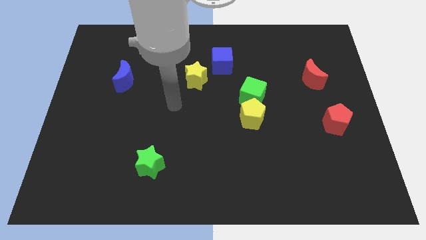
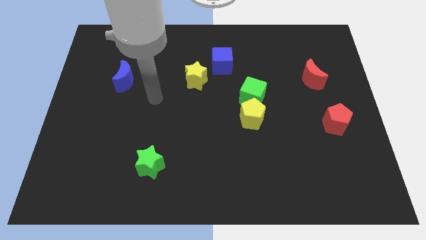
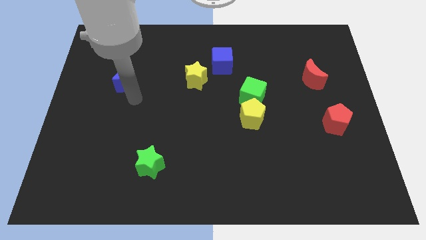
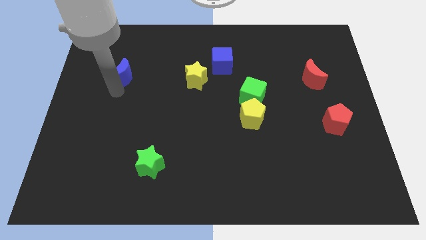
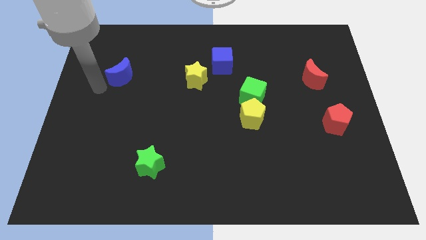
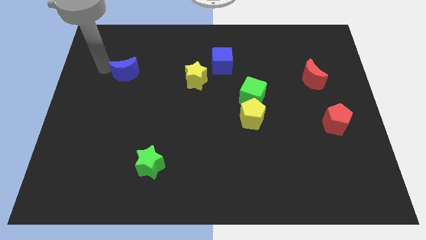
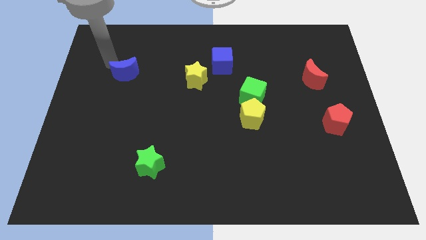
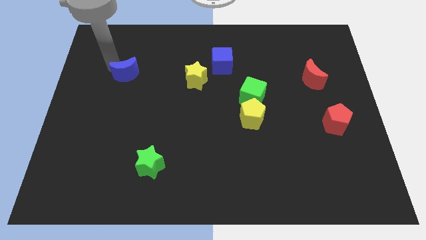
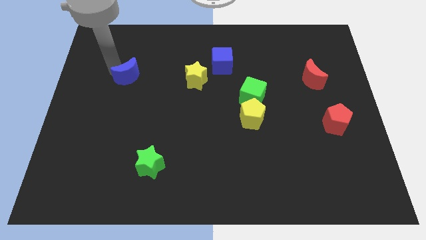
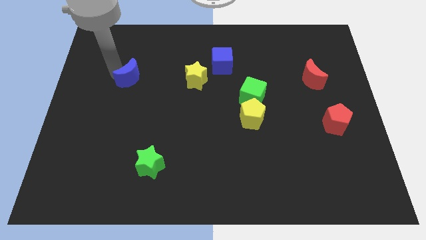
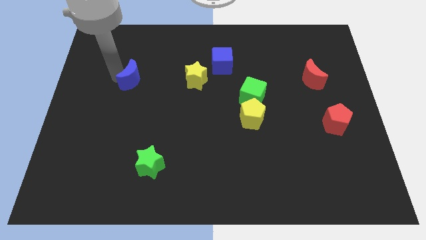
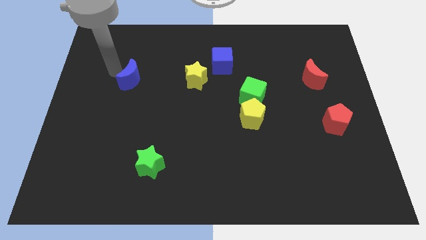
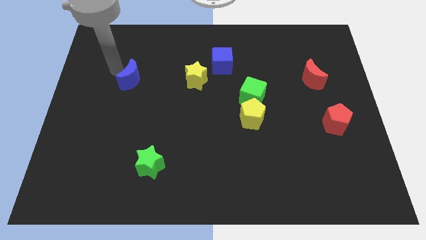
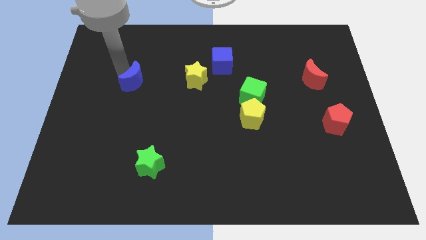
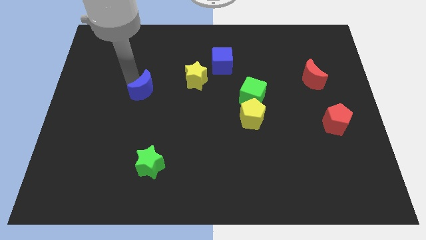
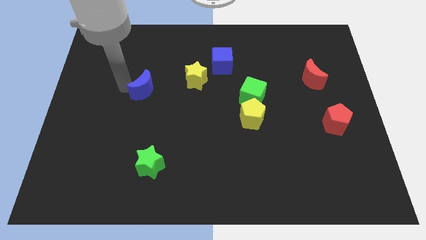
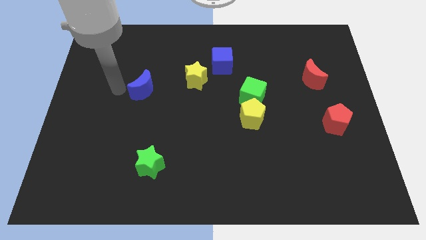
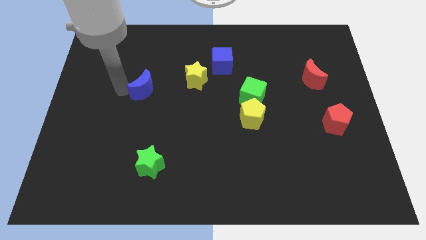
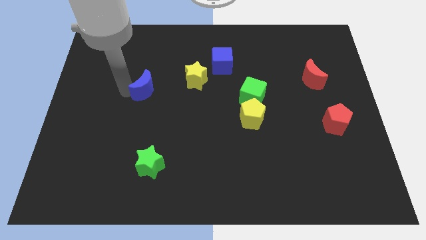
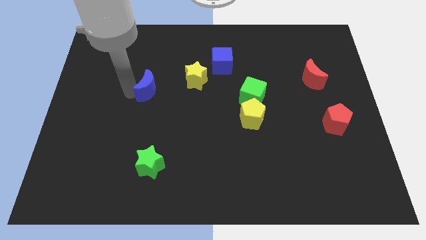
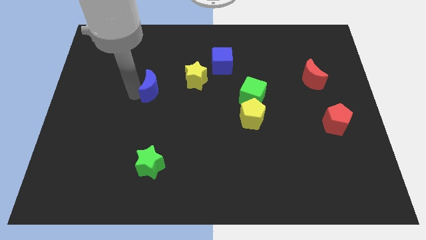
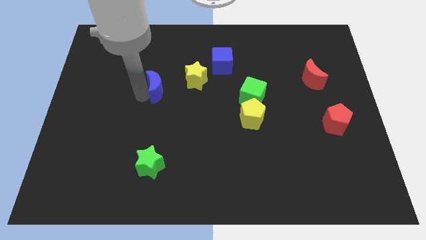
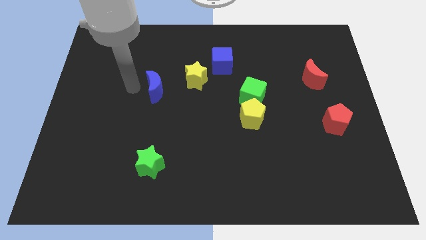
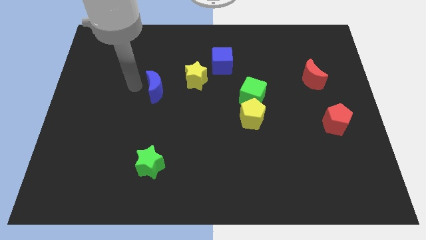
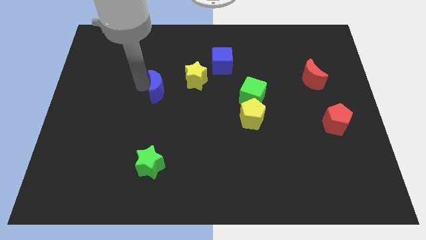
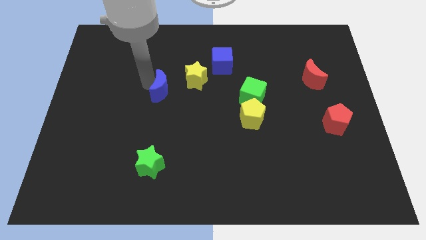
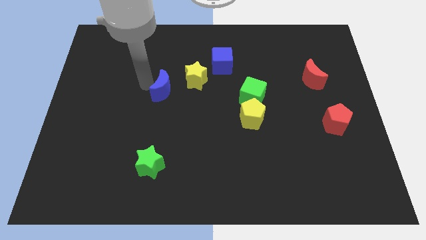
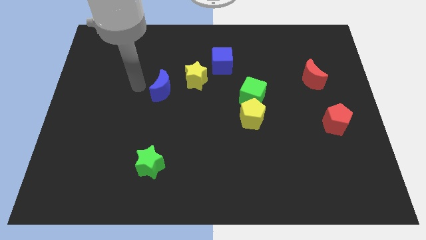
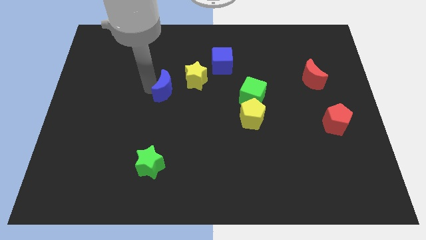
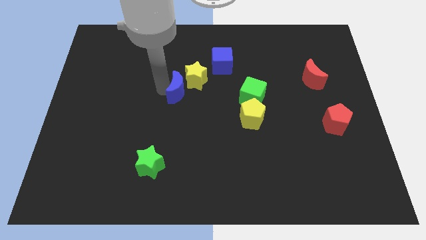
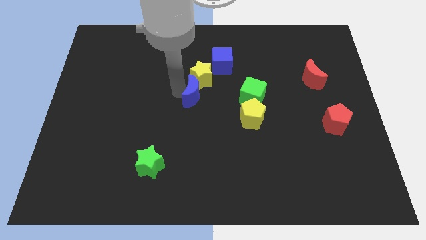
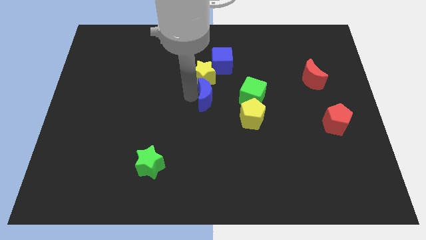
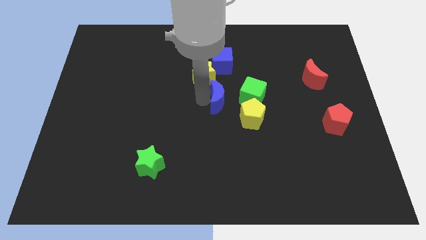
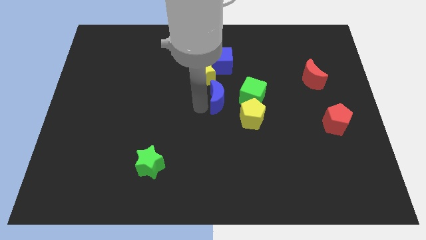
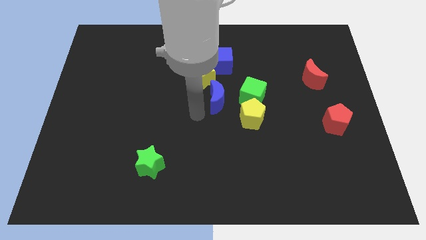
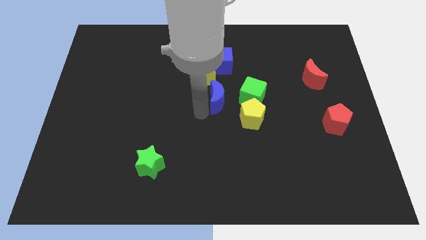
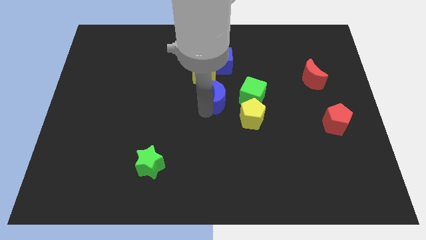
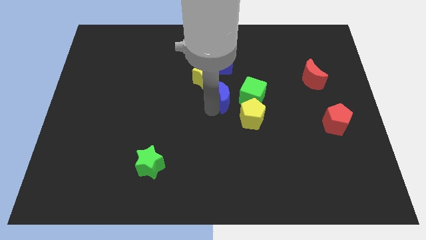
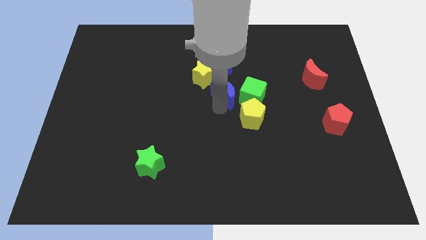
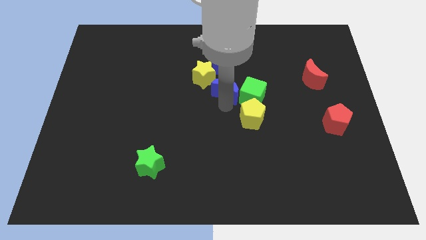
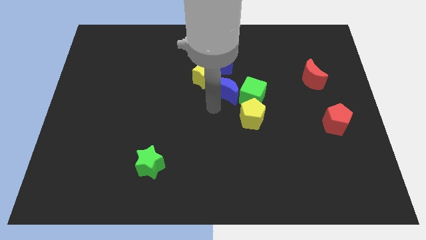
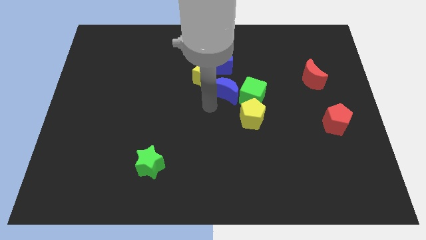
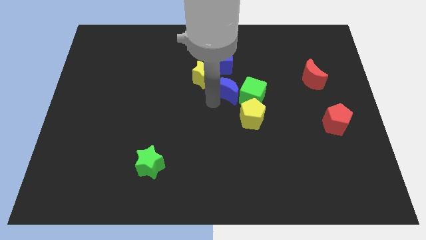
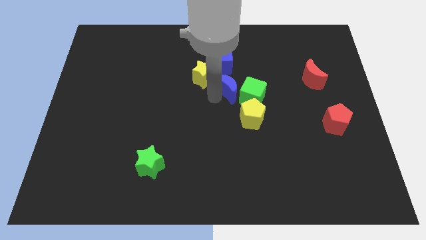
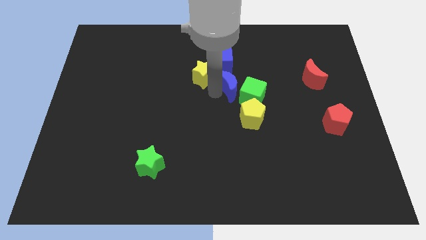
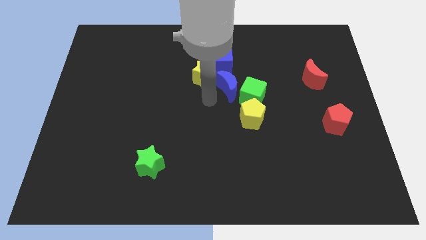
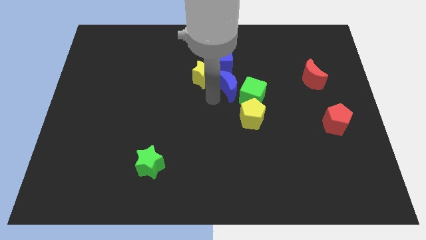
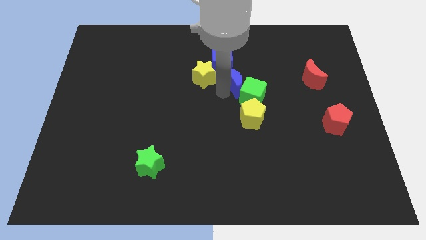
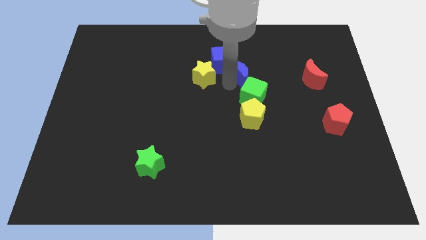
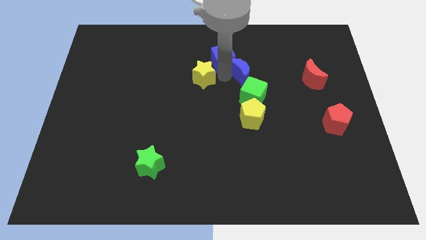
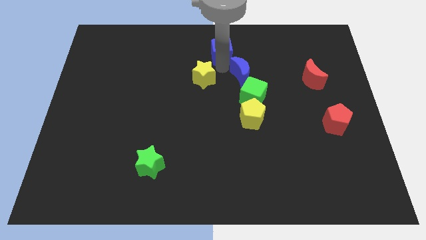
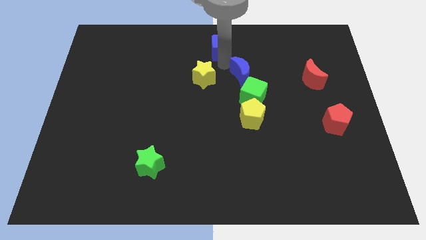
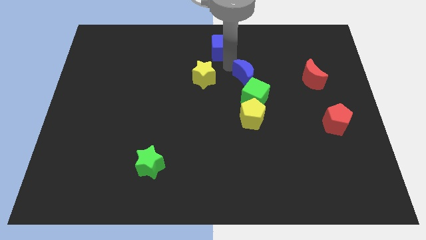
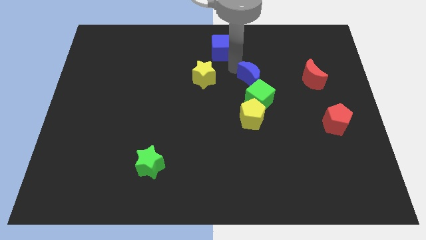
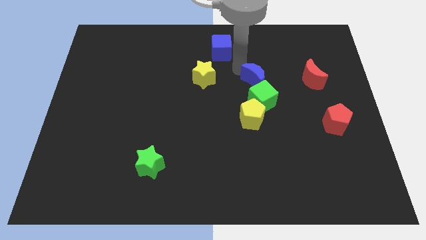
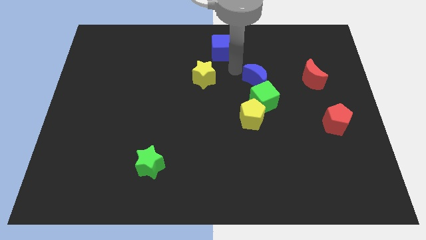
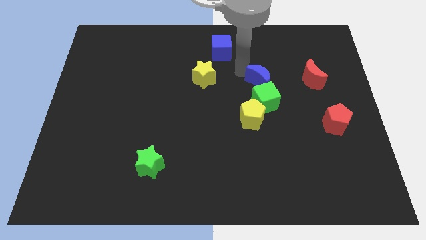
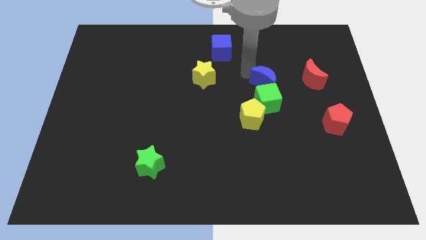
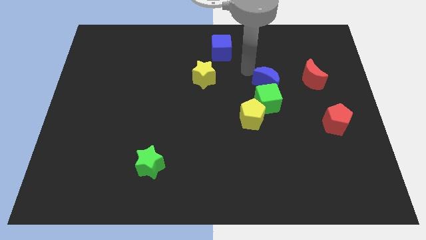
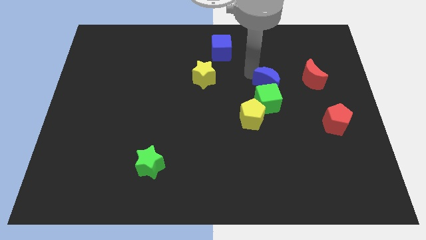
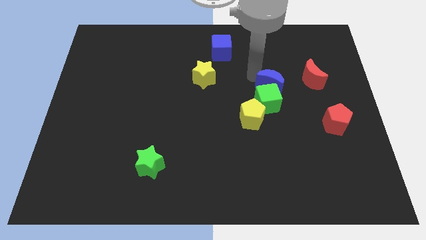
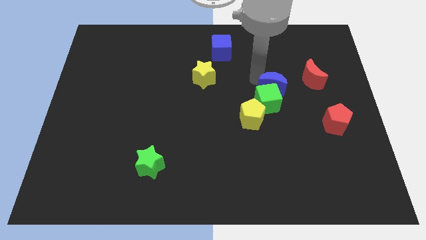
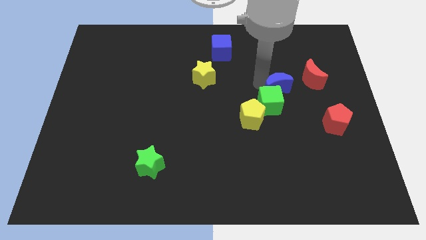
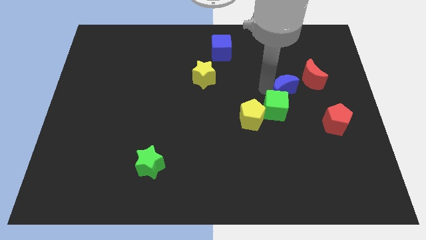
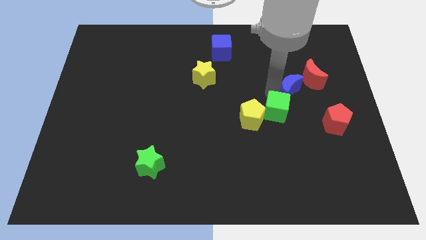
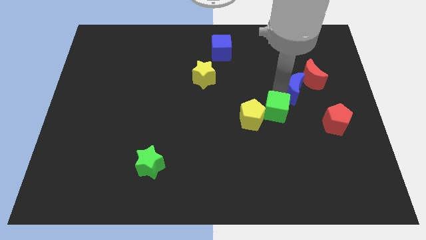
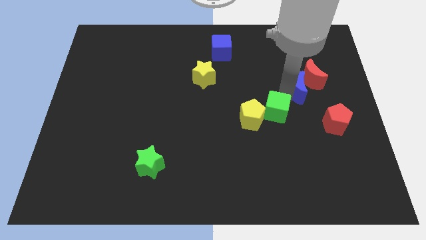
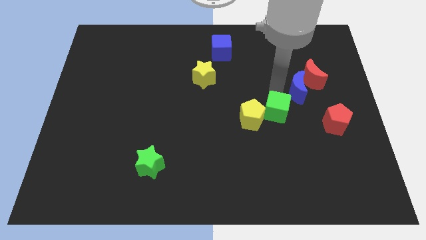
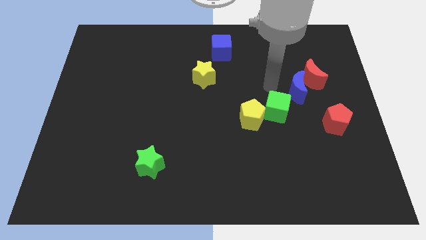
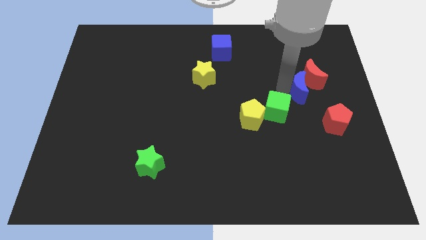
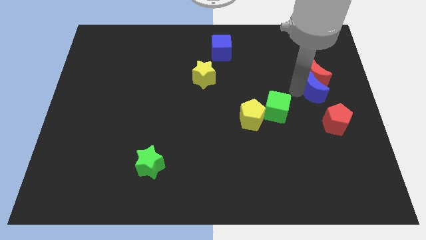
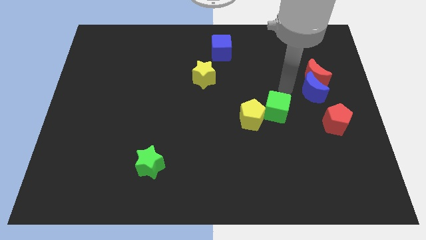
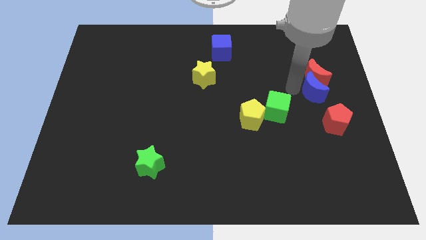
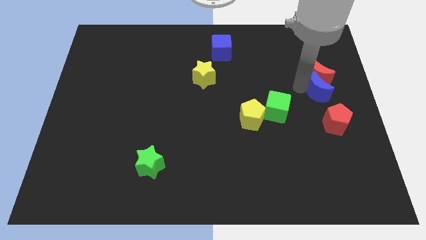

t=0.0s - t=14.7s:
push the blue moon to the center right
